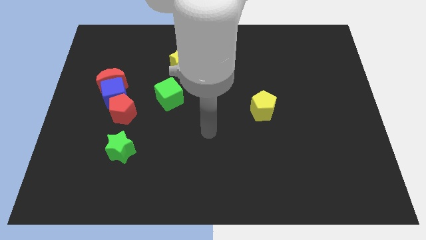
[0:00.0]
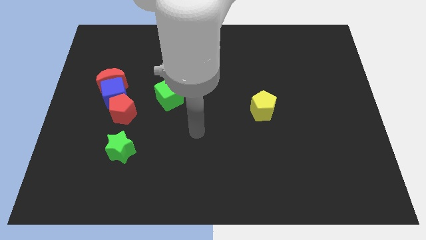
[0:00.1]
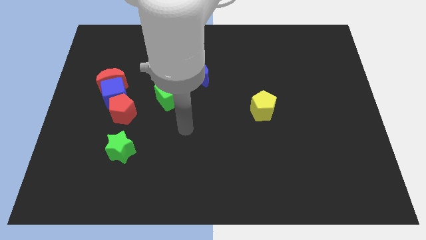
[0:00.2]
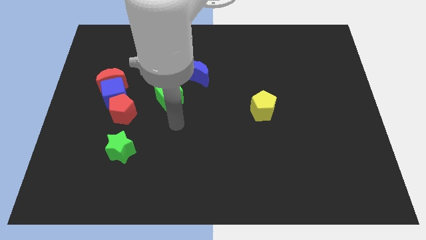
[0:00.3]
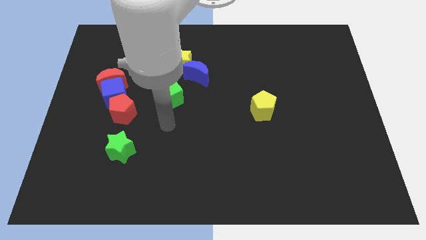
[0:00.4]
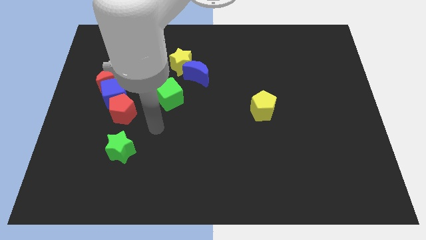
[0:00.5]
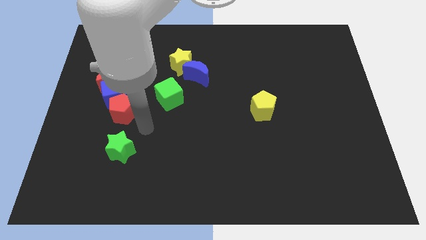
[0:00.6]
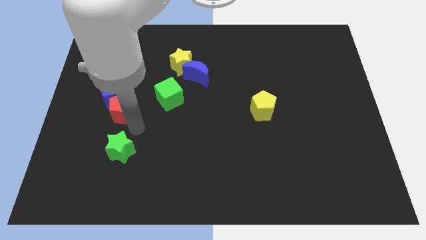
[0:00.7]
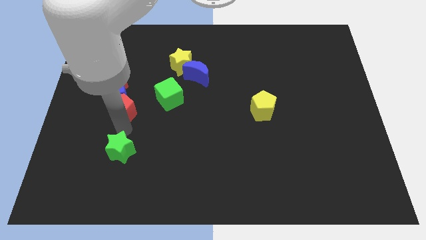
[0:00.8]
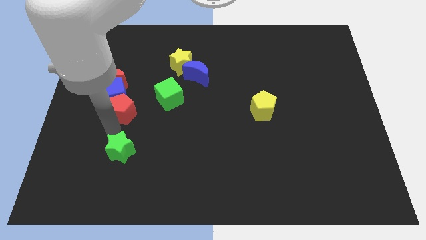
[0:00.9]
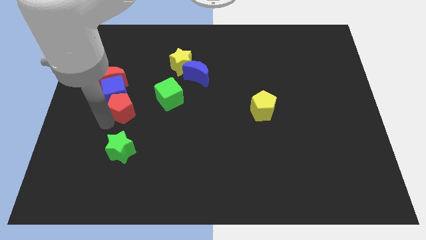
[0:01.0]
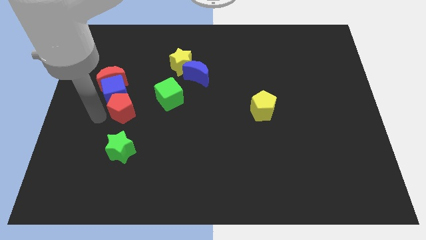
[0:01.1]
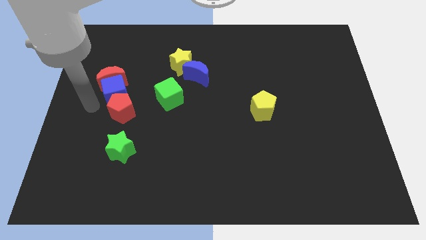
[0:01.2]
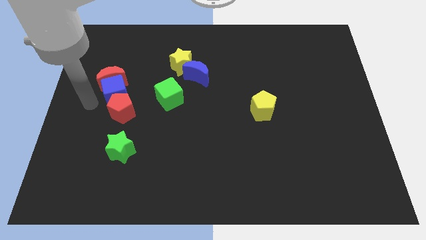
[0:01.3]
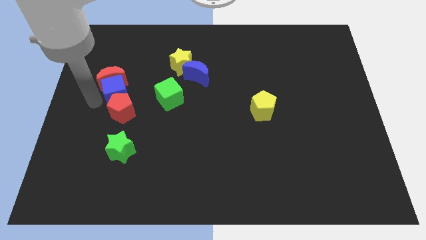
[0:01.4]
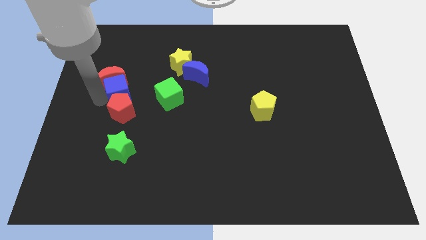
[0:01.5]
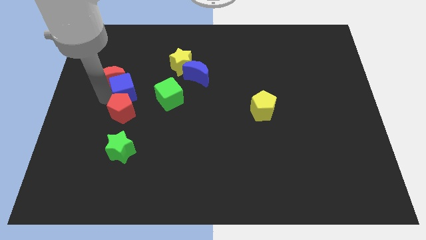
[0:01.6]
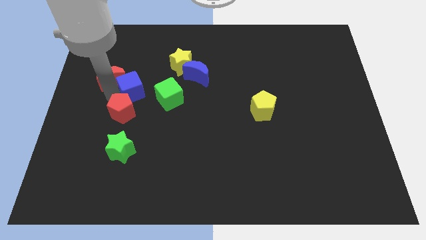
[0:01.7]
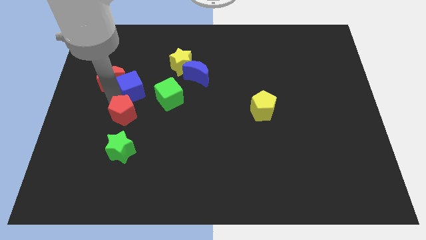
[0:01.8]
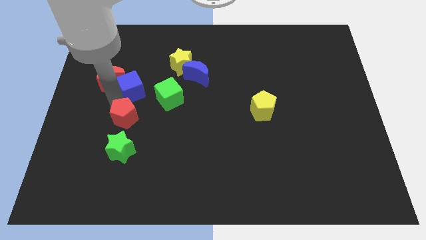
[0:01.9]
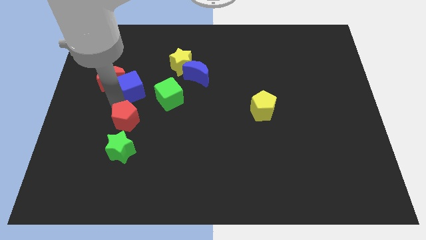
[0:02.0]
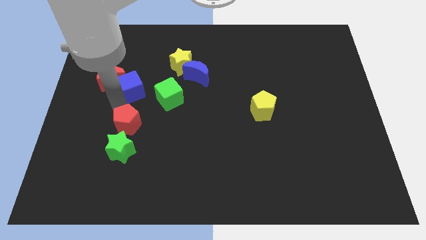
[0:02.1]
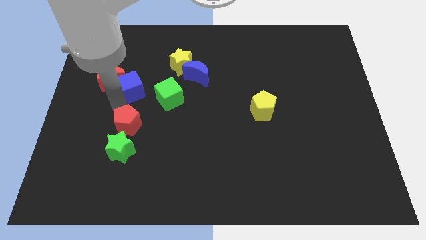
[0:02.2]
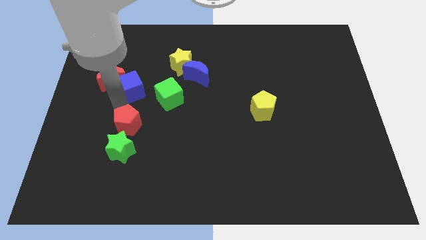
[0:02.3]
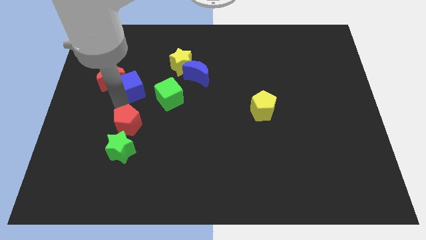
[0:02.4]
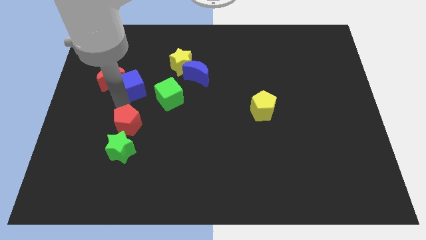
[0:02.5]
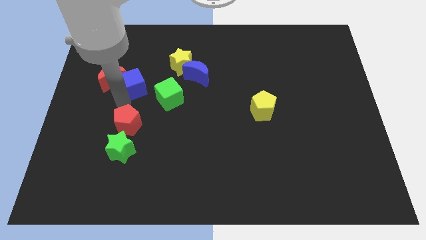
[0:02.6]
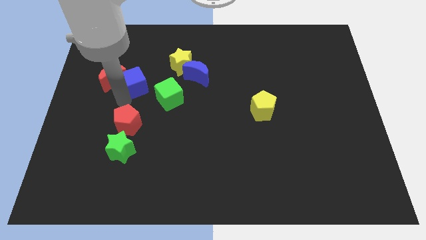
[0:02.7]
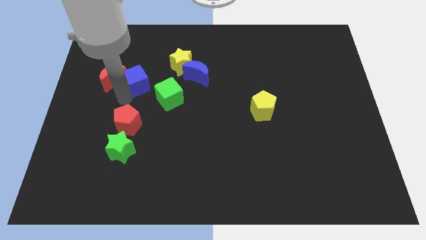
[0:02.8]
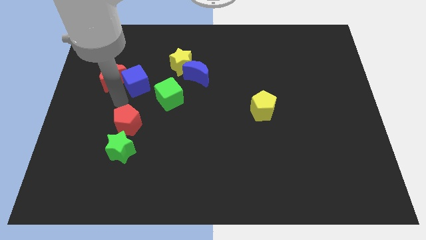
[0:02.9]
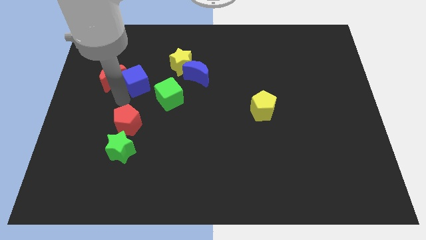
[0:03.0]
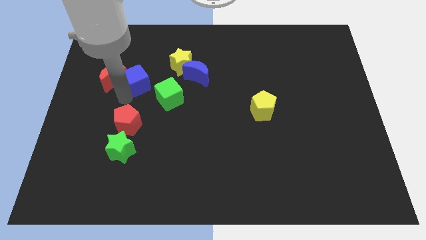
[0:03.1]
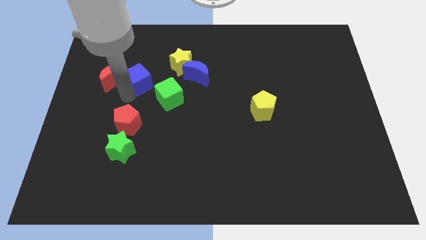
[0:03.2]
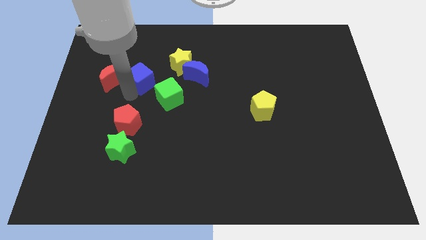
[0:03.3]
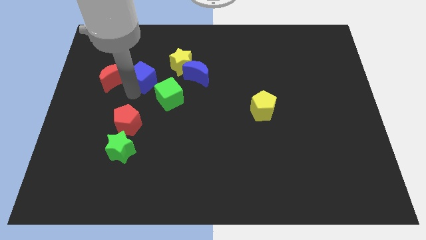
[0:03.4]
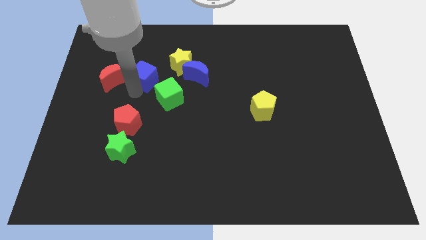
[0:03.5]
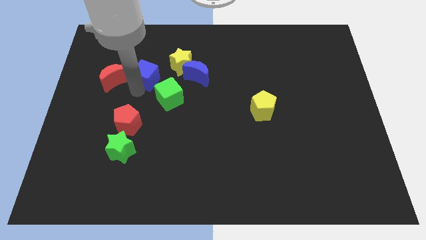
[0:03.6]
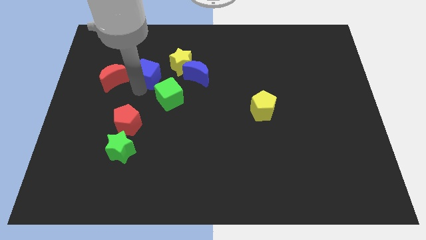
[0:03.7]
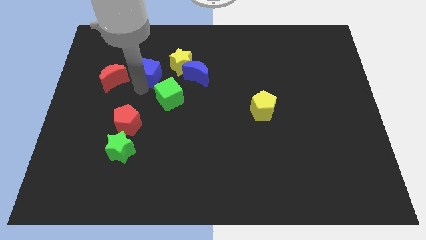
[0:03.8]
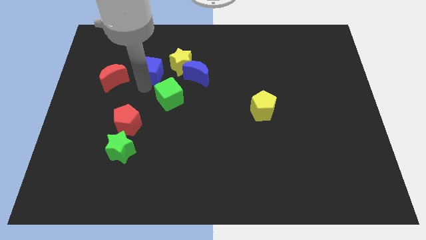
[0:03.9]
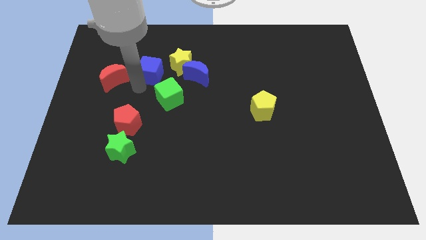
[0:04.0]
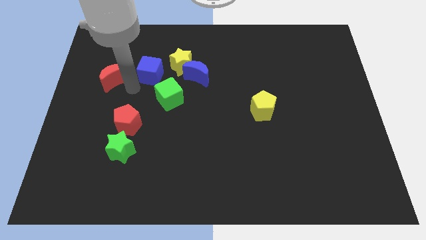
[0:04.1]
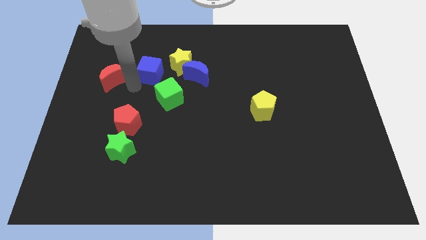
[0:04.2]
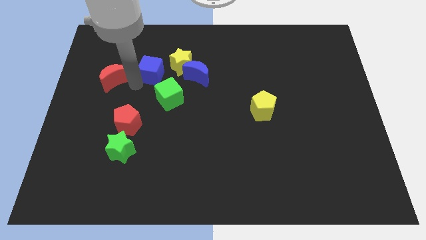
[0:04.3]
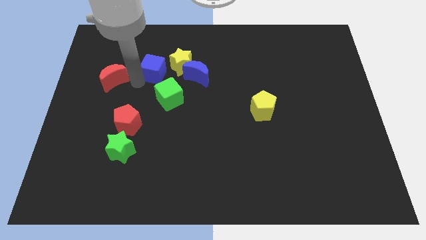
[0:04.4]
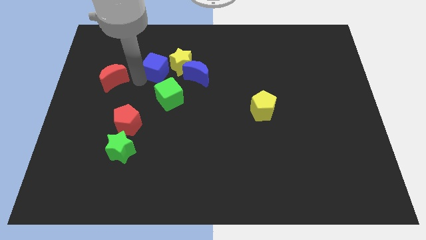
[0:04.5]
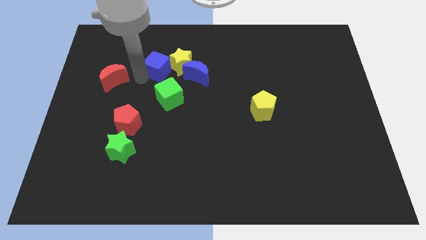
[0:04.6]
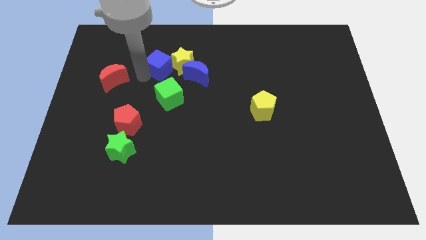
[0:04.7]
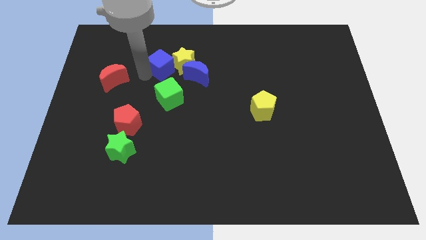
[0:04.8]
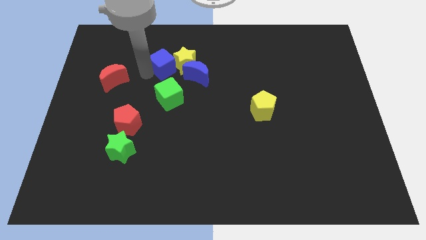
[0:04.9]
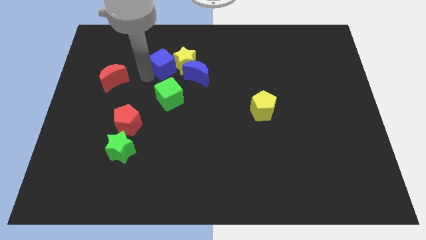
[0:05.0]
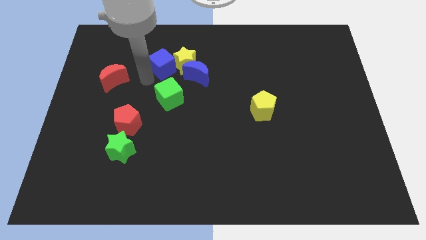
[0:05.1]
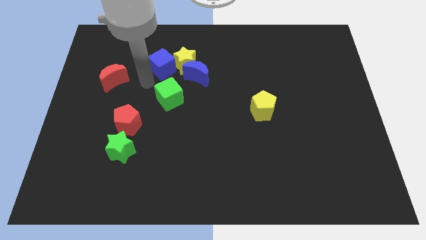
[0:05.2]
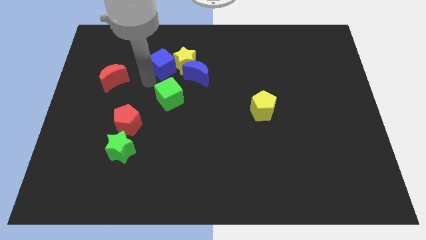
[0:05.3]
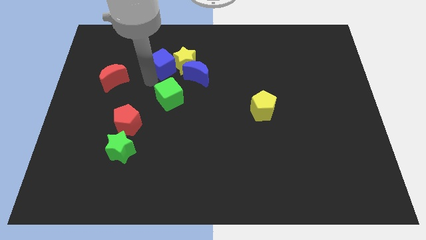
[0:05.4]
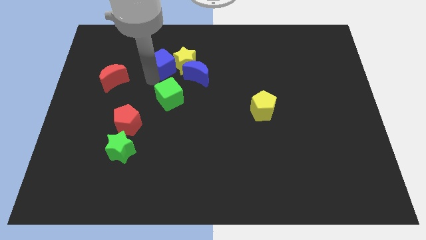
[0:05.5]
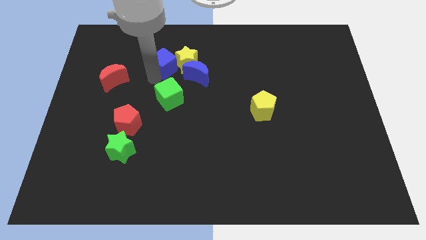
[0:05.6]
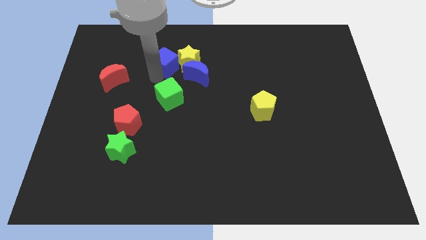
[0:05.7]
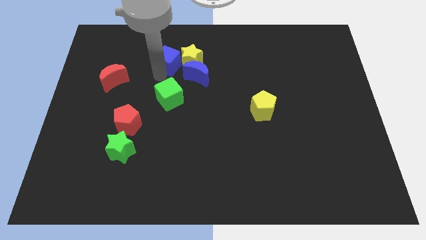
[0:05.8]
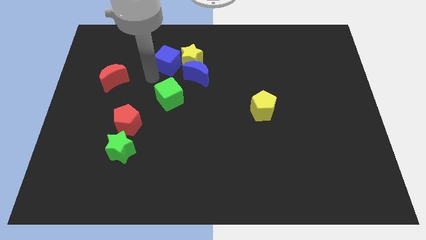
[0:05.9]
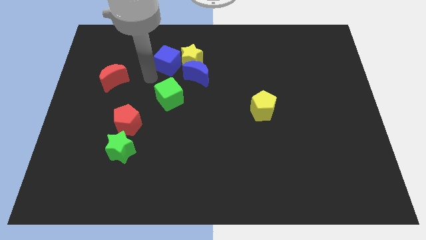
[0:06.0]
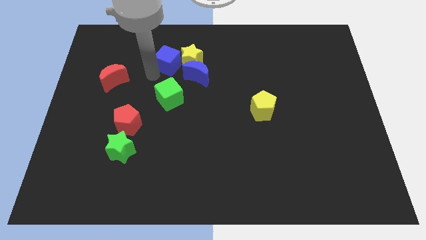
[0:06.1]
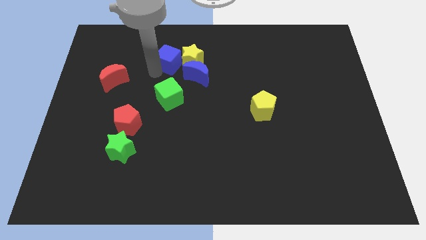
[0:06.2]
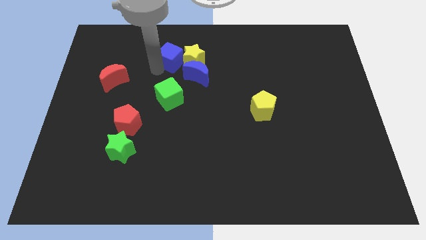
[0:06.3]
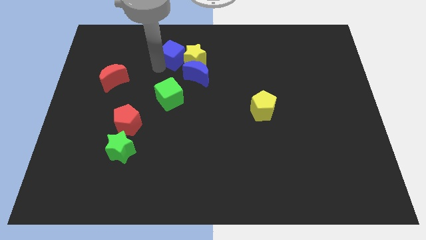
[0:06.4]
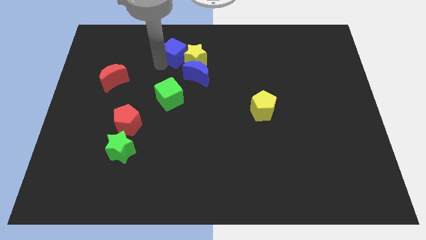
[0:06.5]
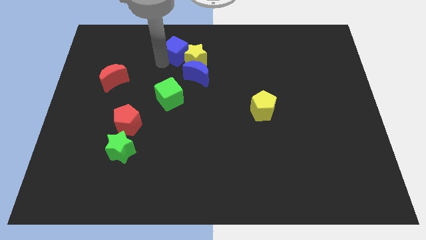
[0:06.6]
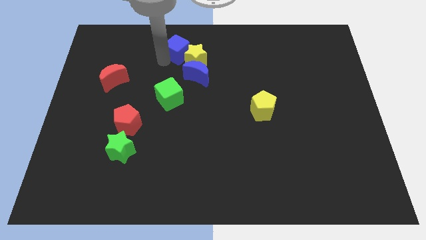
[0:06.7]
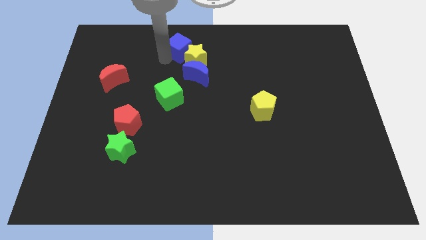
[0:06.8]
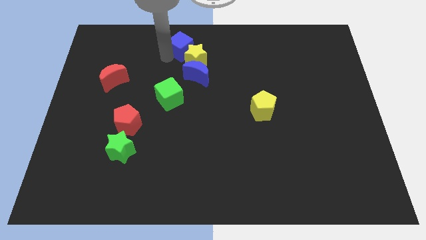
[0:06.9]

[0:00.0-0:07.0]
slide the blue cube to the towards your base

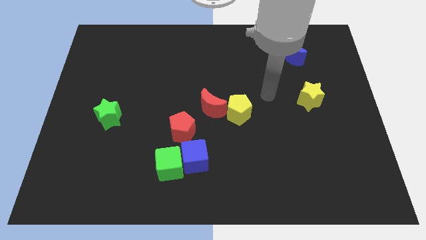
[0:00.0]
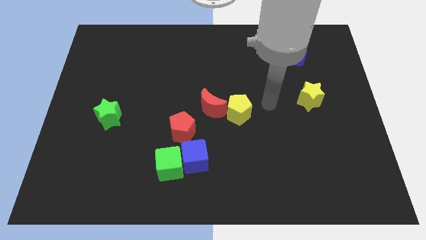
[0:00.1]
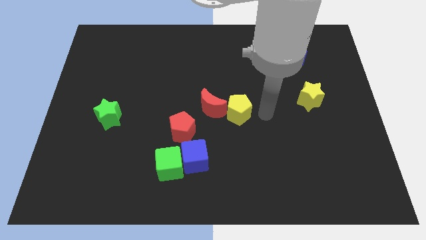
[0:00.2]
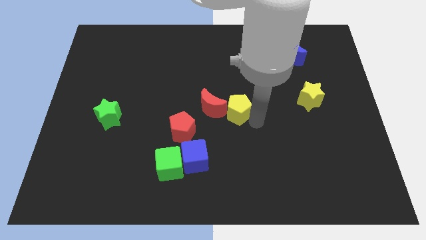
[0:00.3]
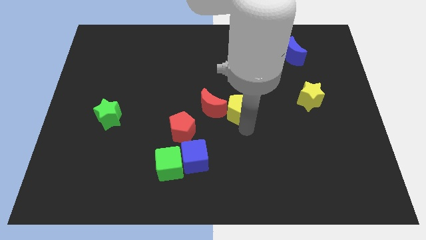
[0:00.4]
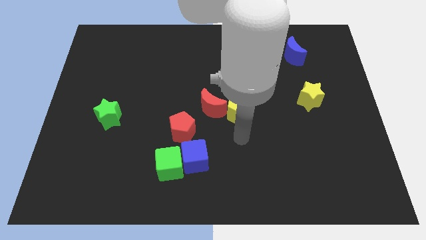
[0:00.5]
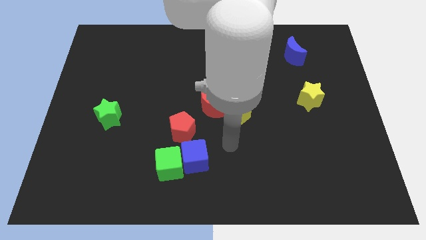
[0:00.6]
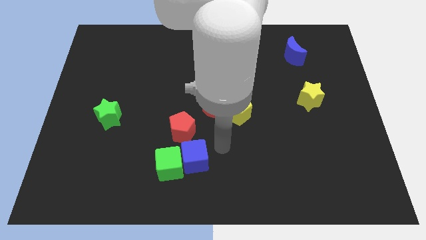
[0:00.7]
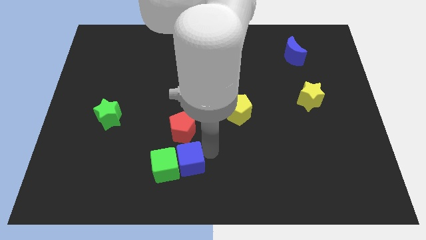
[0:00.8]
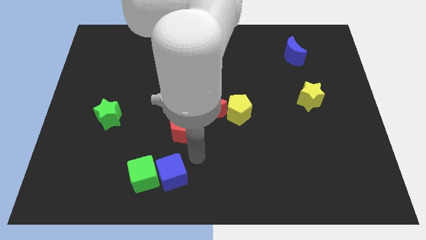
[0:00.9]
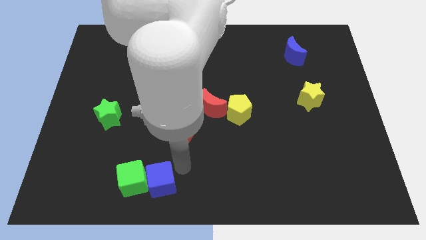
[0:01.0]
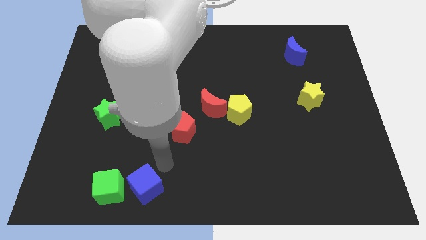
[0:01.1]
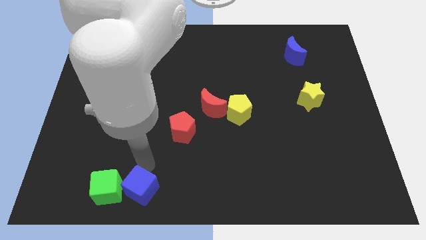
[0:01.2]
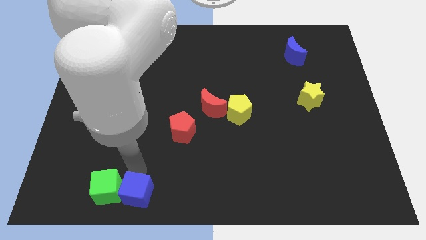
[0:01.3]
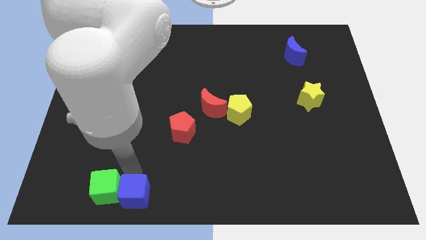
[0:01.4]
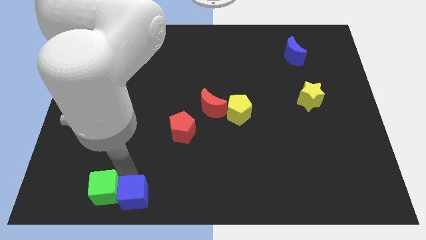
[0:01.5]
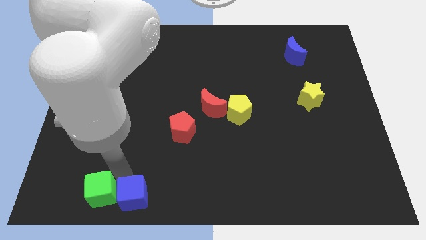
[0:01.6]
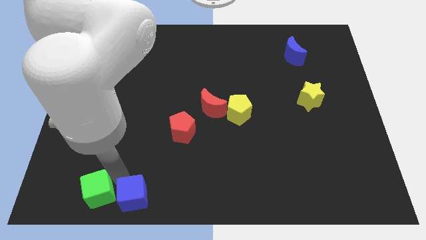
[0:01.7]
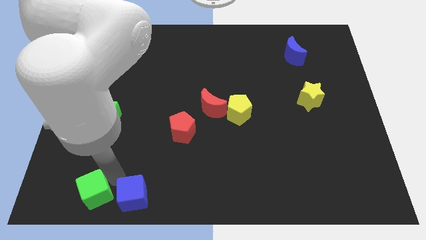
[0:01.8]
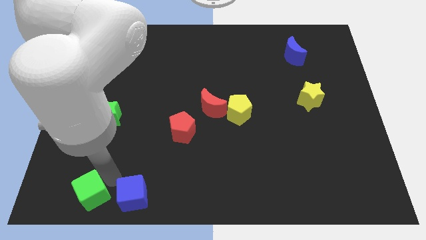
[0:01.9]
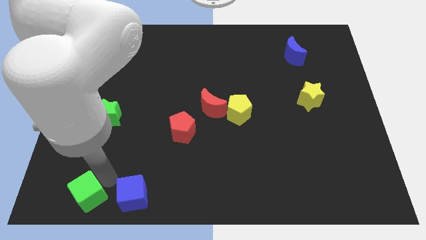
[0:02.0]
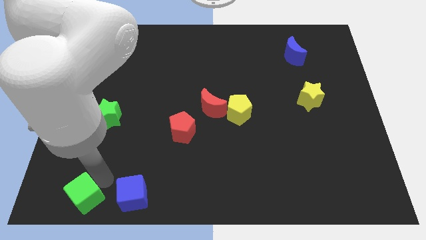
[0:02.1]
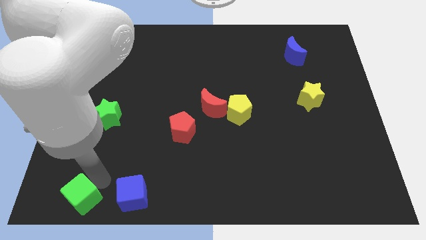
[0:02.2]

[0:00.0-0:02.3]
slide the green cube to the bottom left of the board
